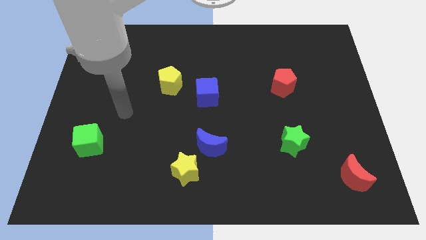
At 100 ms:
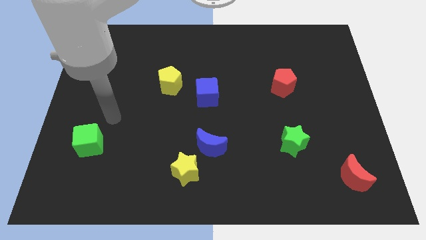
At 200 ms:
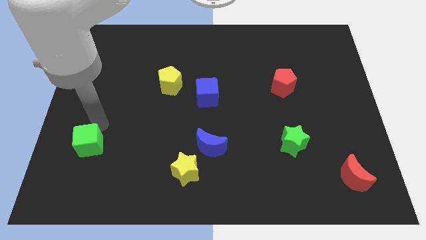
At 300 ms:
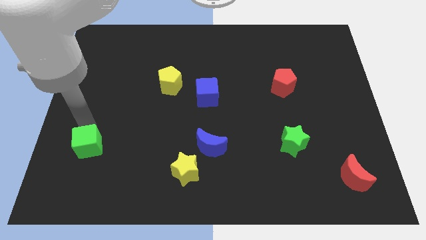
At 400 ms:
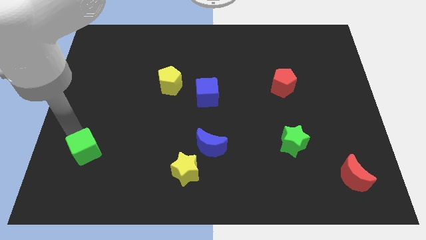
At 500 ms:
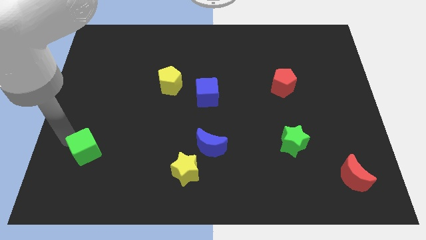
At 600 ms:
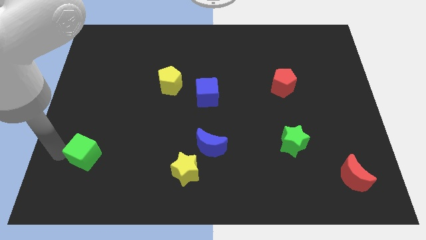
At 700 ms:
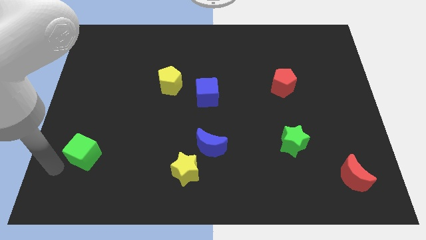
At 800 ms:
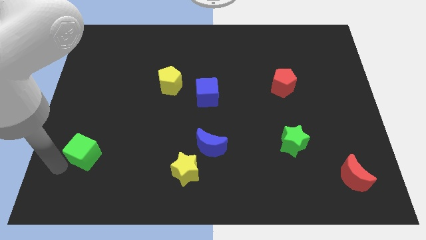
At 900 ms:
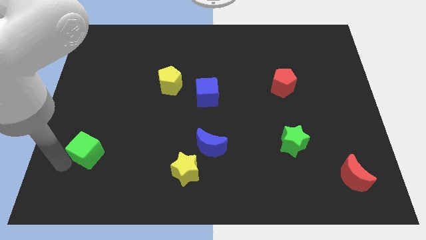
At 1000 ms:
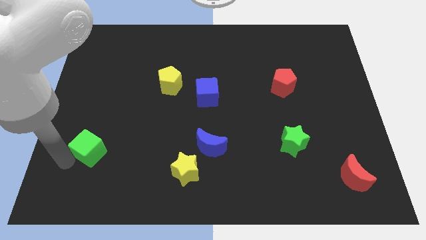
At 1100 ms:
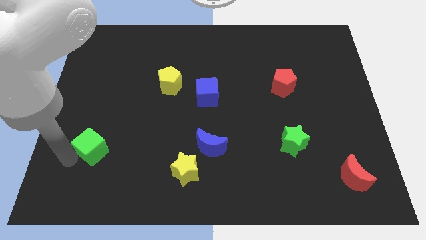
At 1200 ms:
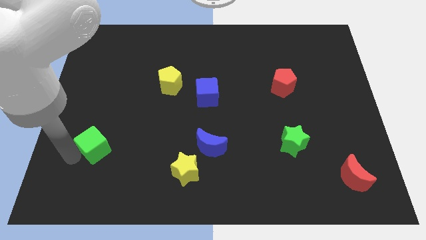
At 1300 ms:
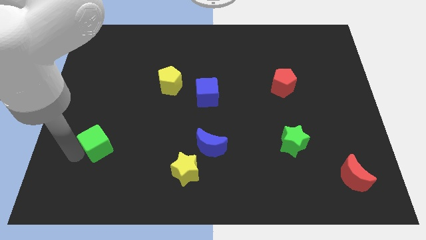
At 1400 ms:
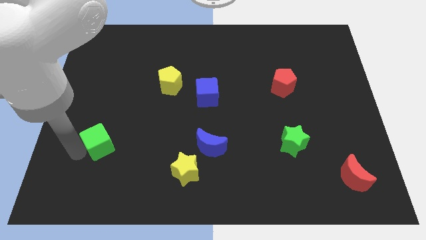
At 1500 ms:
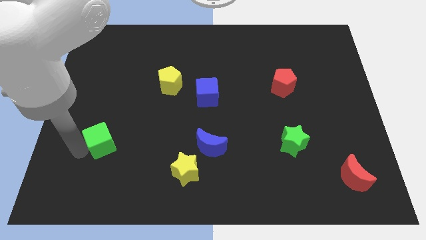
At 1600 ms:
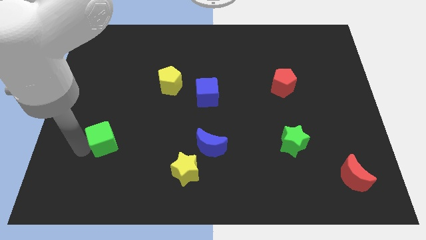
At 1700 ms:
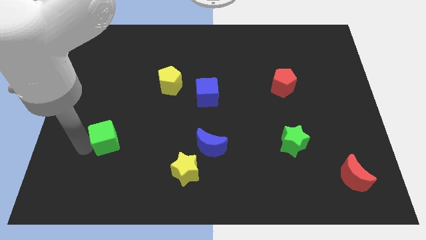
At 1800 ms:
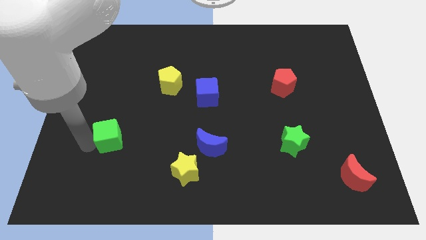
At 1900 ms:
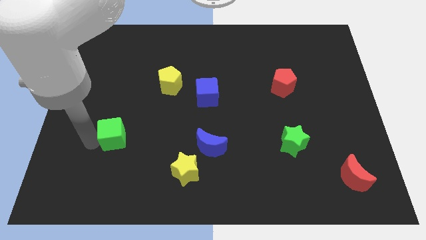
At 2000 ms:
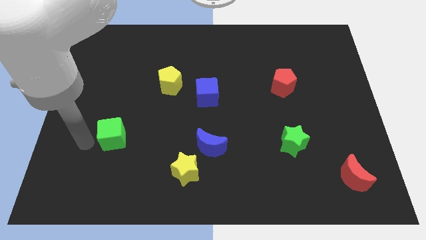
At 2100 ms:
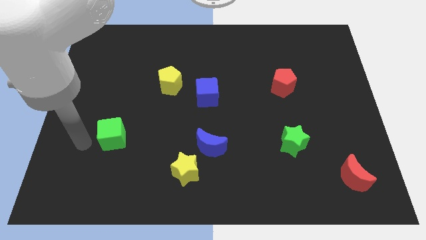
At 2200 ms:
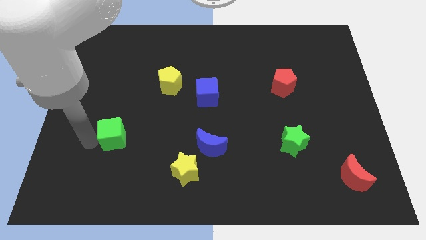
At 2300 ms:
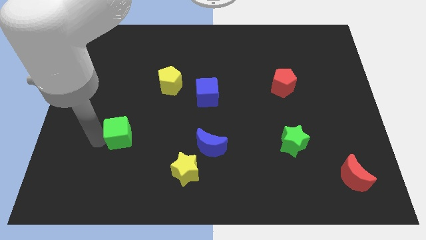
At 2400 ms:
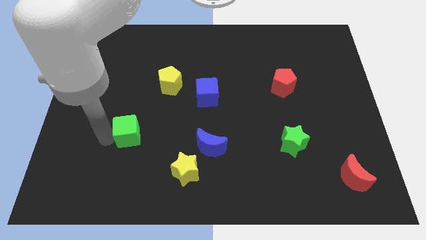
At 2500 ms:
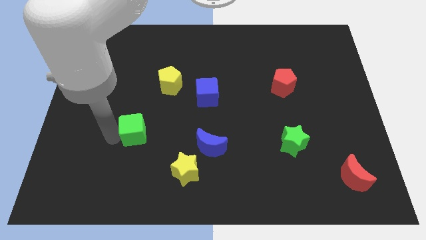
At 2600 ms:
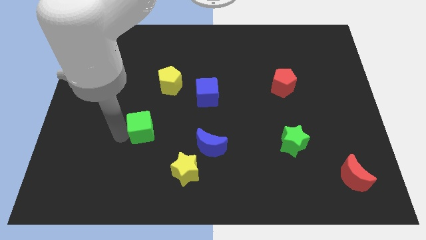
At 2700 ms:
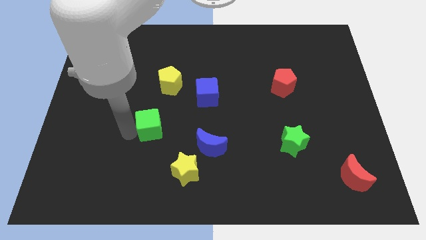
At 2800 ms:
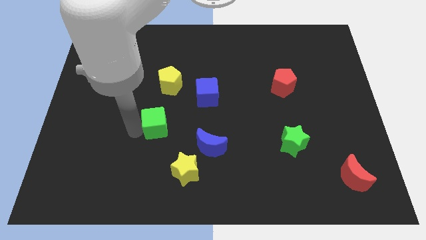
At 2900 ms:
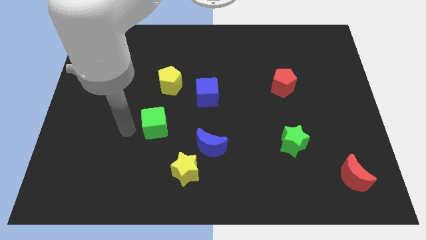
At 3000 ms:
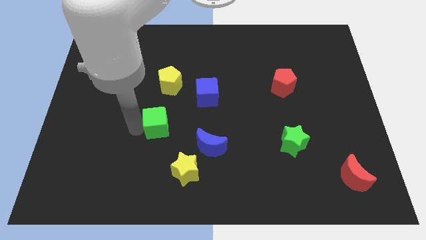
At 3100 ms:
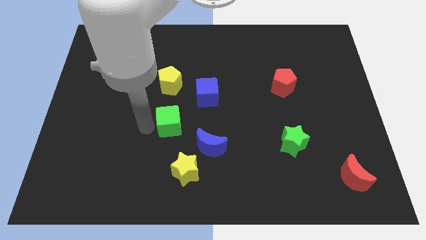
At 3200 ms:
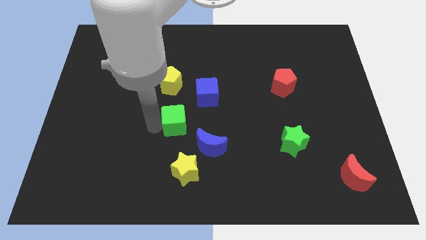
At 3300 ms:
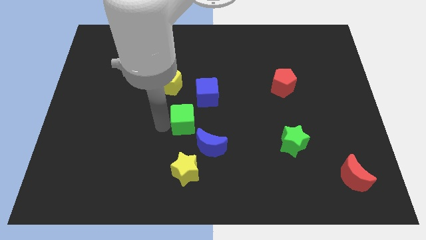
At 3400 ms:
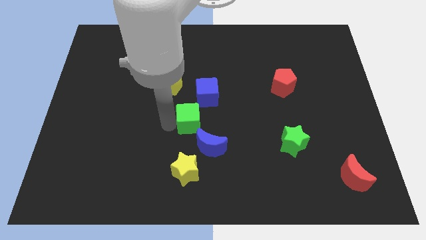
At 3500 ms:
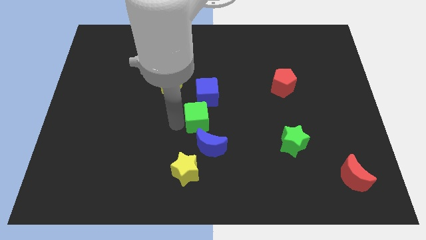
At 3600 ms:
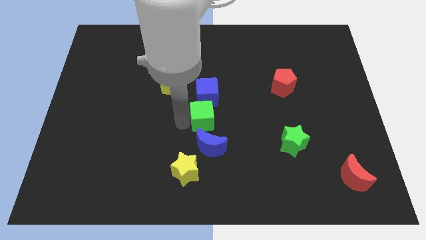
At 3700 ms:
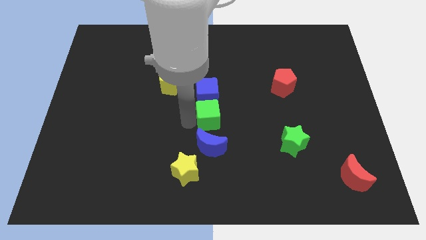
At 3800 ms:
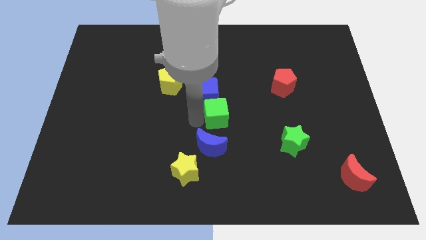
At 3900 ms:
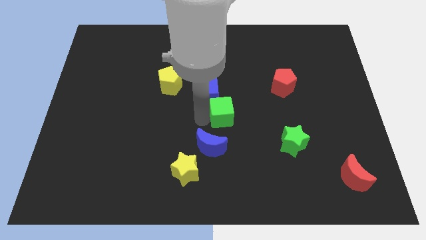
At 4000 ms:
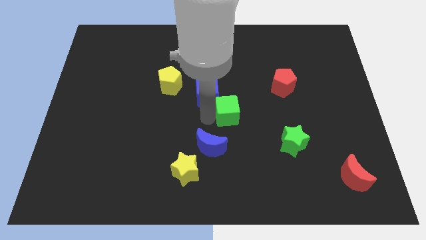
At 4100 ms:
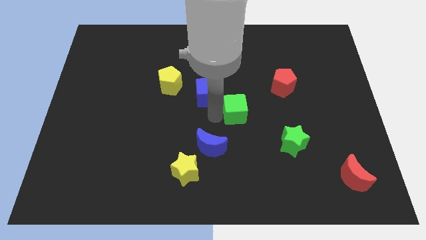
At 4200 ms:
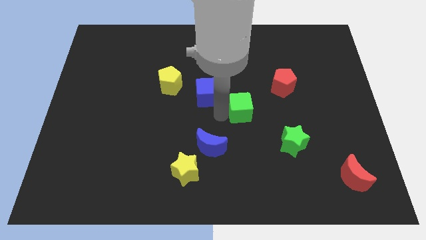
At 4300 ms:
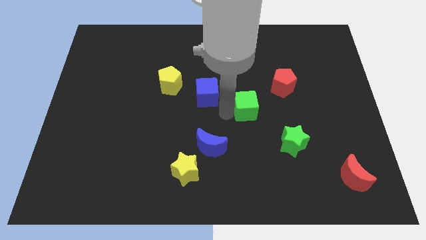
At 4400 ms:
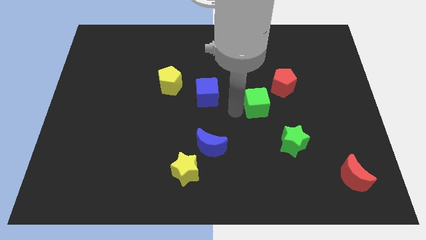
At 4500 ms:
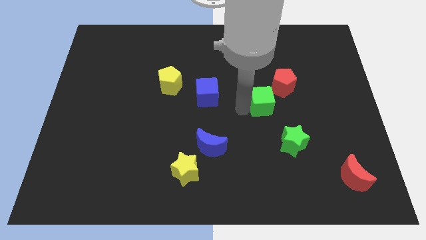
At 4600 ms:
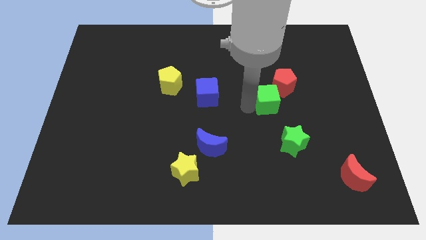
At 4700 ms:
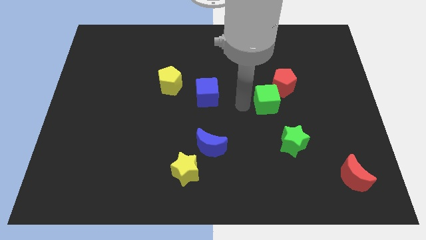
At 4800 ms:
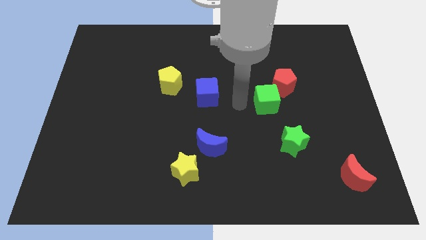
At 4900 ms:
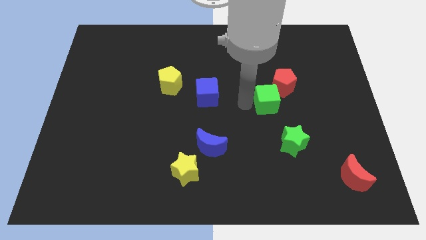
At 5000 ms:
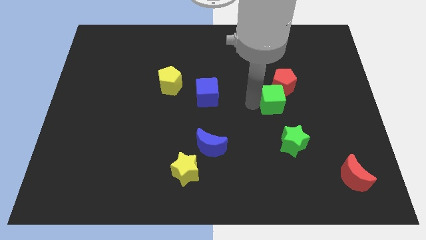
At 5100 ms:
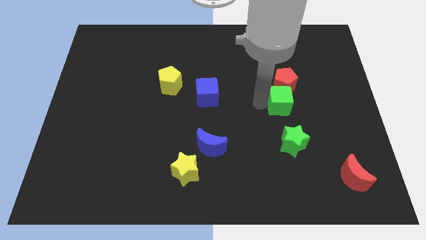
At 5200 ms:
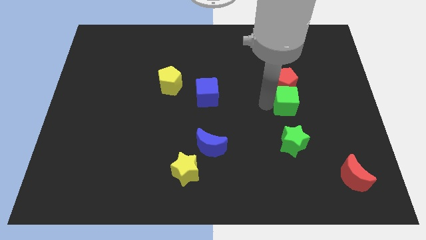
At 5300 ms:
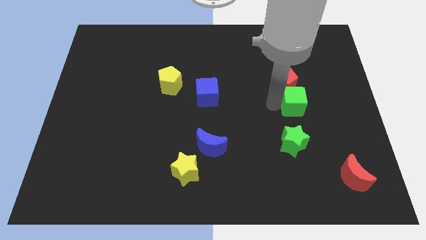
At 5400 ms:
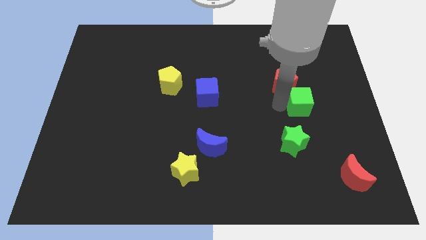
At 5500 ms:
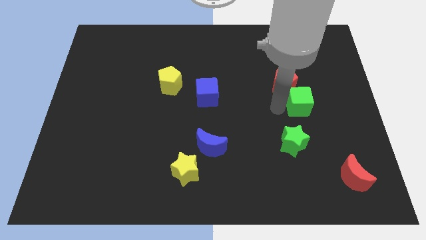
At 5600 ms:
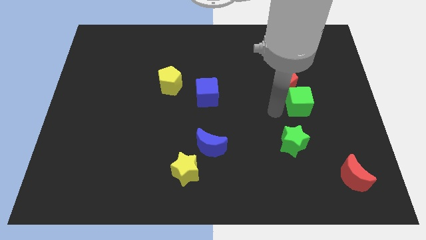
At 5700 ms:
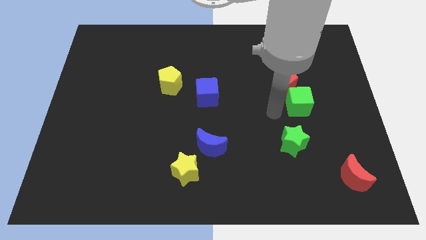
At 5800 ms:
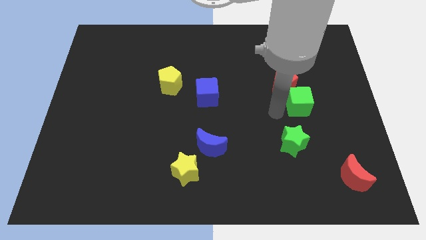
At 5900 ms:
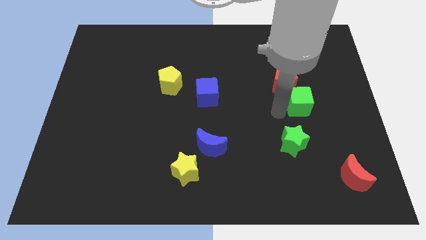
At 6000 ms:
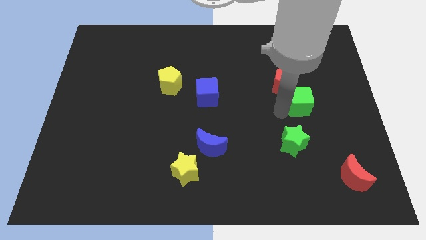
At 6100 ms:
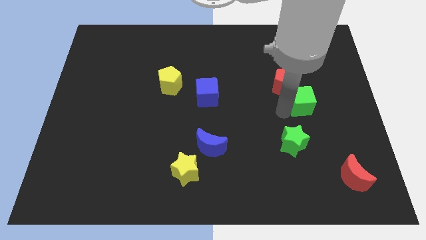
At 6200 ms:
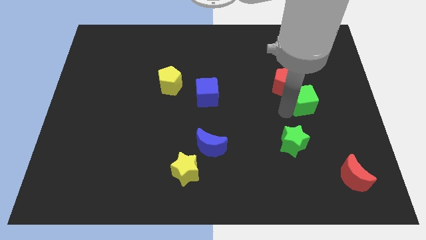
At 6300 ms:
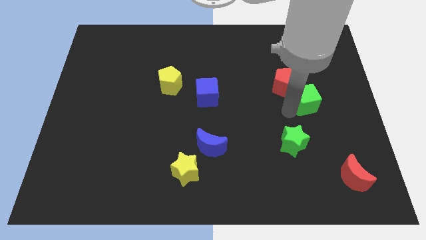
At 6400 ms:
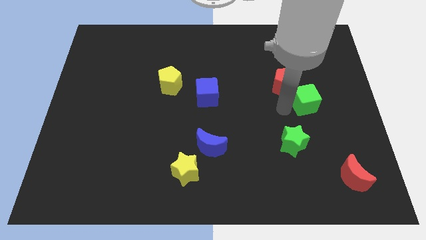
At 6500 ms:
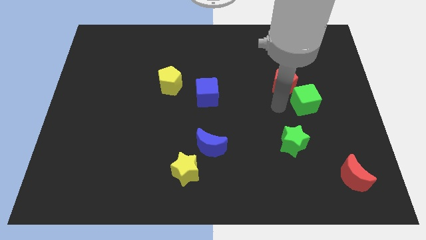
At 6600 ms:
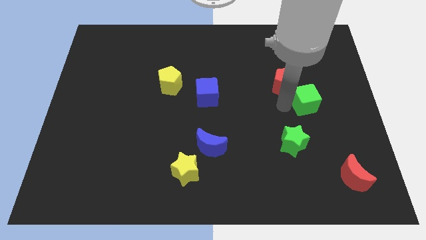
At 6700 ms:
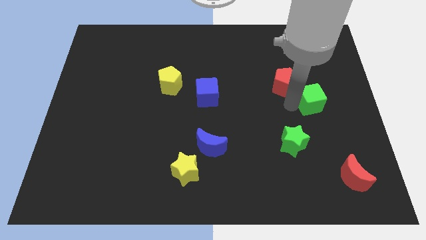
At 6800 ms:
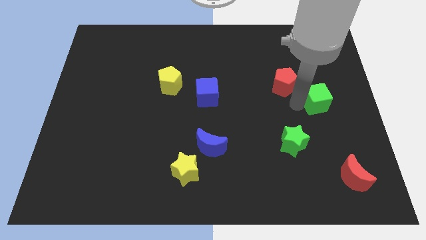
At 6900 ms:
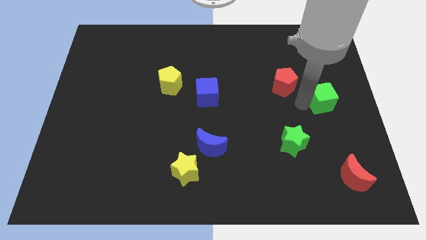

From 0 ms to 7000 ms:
move the green cube to the right side of the board
